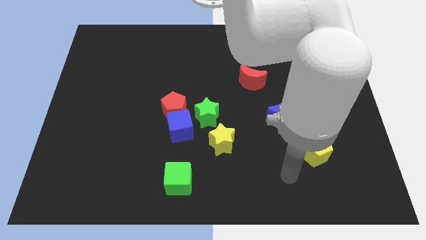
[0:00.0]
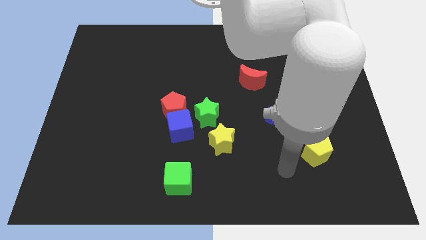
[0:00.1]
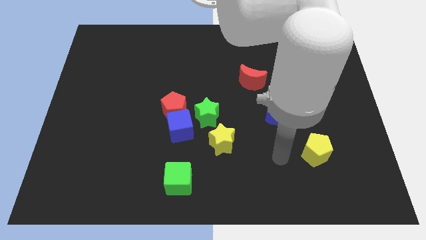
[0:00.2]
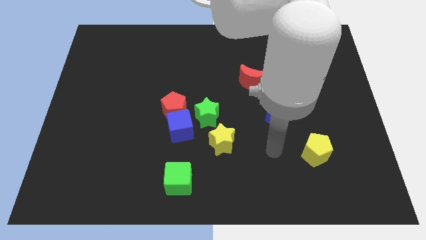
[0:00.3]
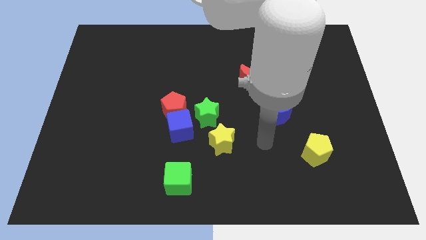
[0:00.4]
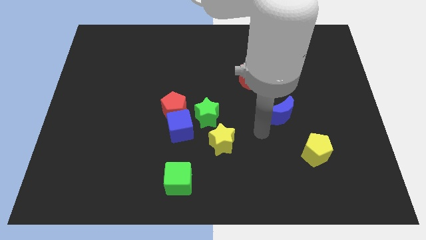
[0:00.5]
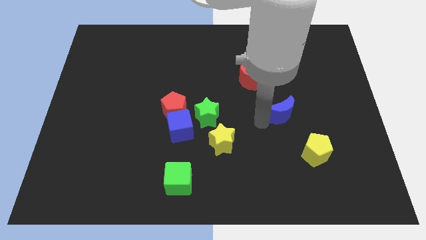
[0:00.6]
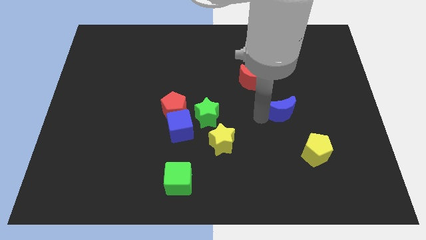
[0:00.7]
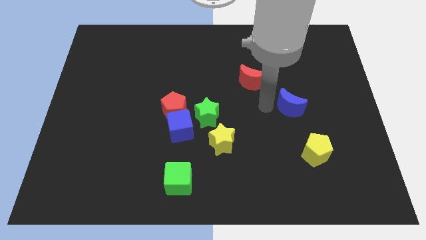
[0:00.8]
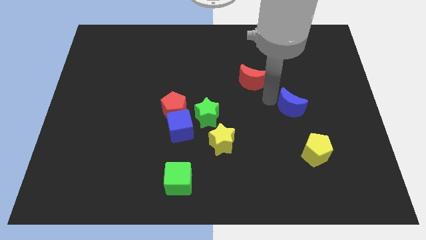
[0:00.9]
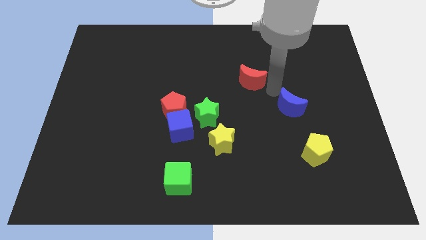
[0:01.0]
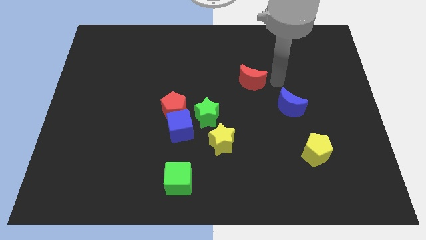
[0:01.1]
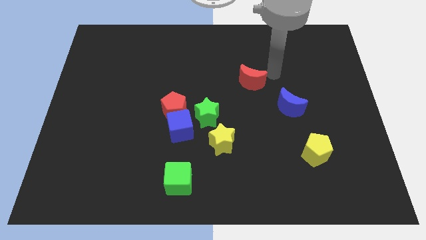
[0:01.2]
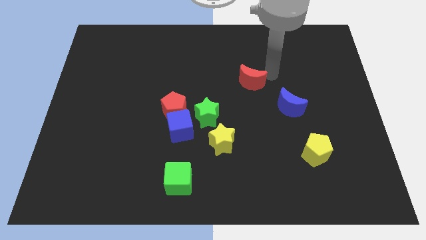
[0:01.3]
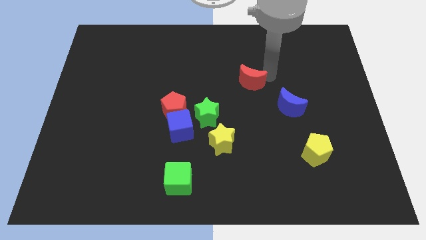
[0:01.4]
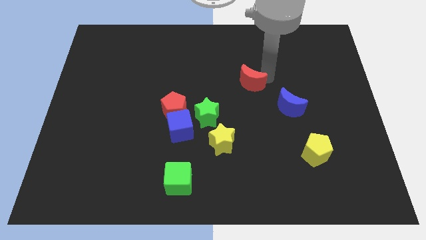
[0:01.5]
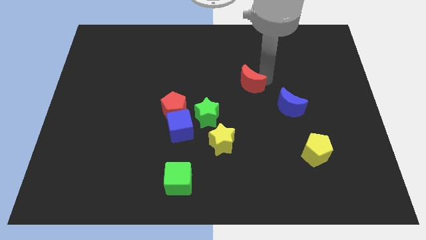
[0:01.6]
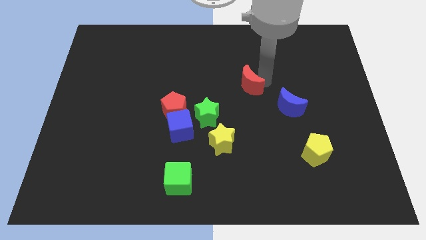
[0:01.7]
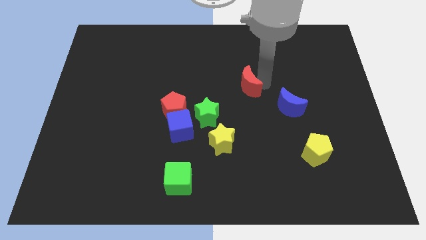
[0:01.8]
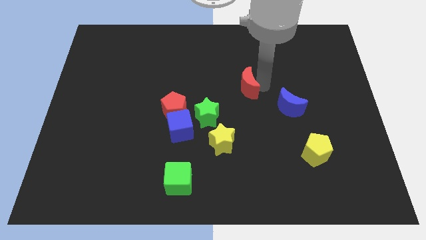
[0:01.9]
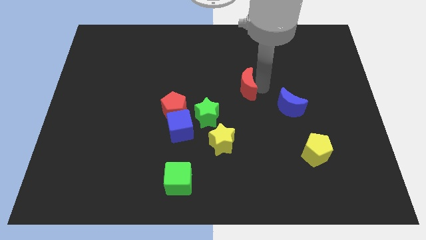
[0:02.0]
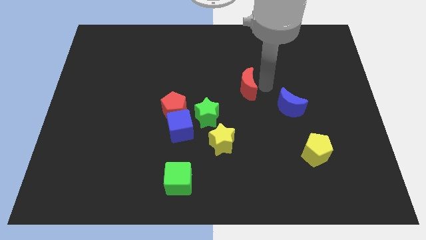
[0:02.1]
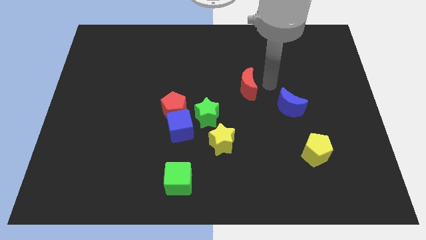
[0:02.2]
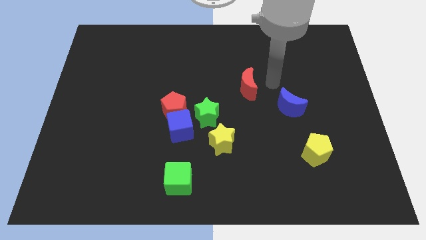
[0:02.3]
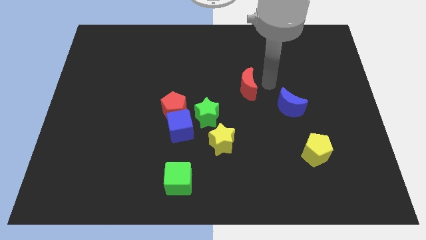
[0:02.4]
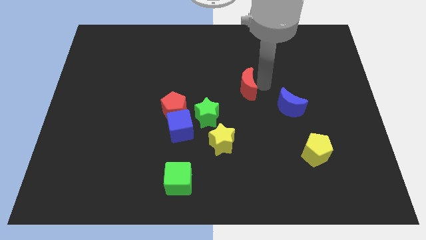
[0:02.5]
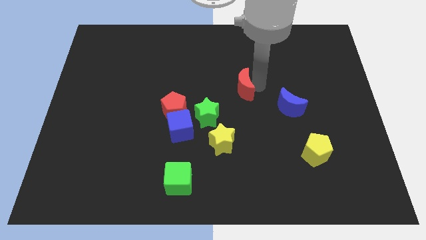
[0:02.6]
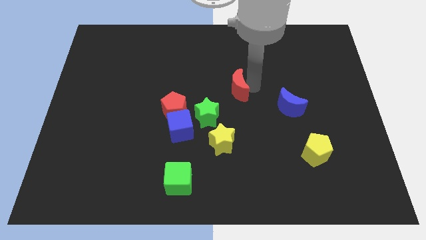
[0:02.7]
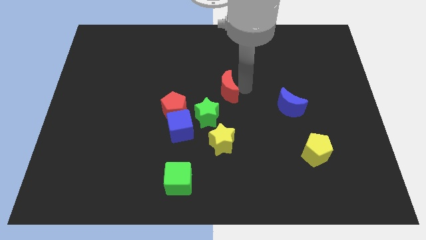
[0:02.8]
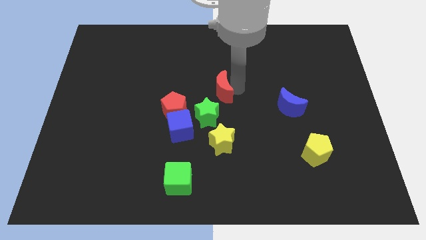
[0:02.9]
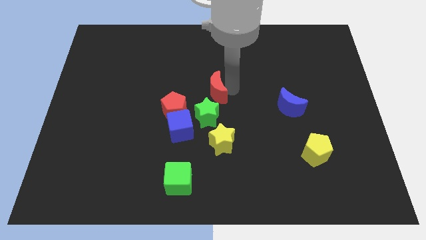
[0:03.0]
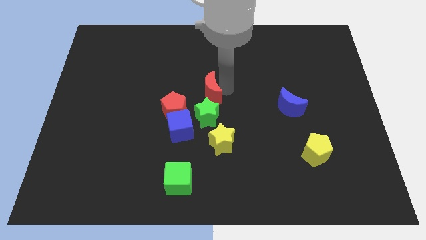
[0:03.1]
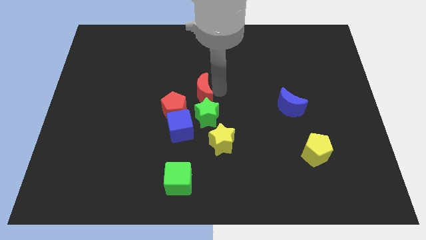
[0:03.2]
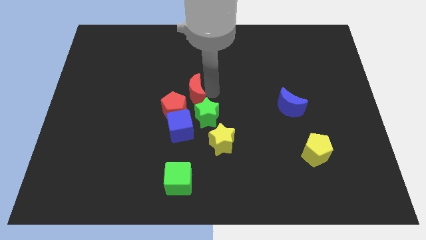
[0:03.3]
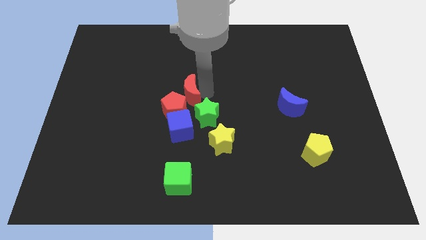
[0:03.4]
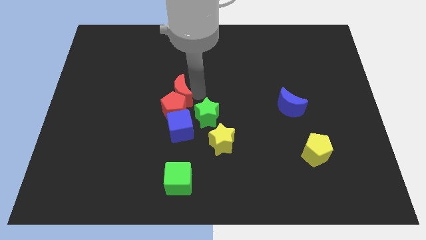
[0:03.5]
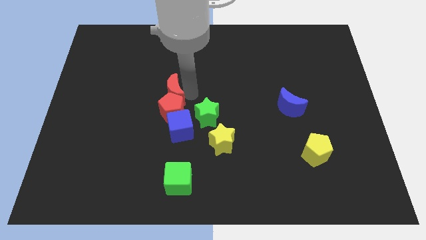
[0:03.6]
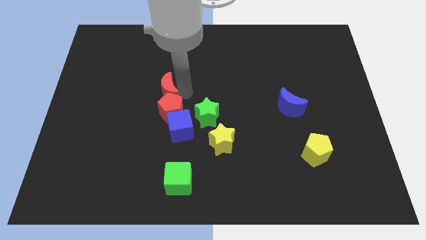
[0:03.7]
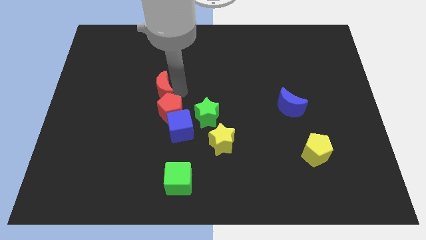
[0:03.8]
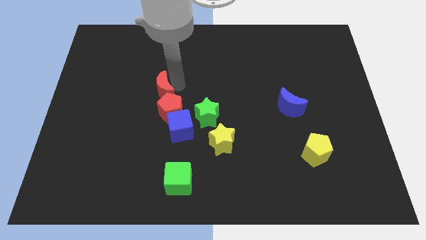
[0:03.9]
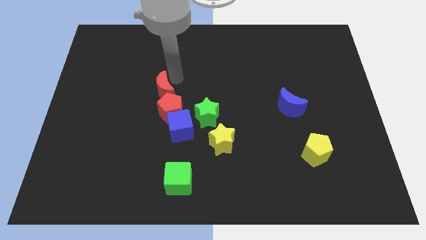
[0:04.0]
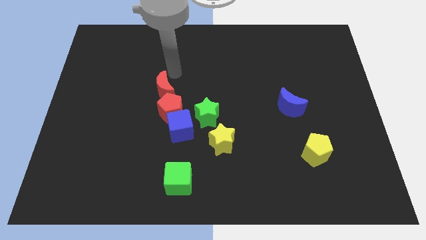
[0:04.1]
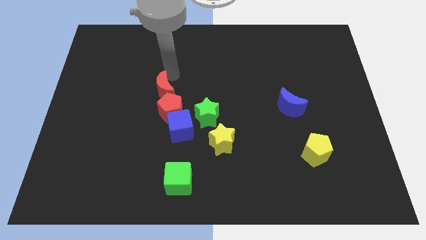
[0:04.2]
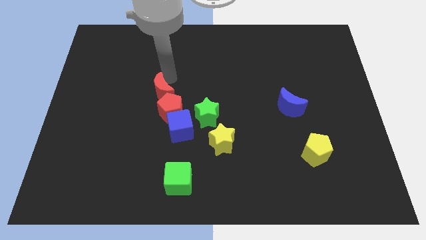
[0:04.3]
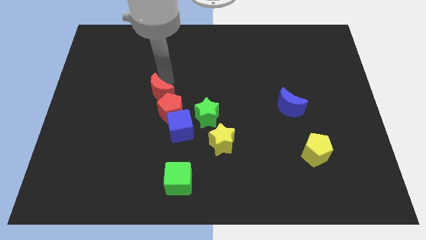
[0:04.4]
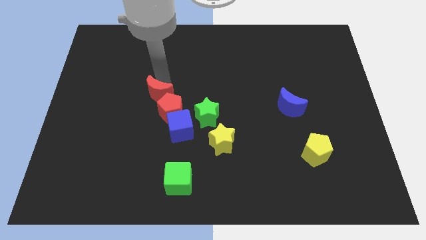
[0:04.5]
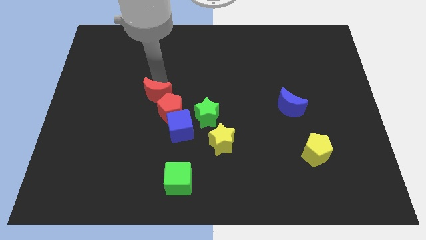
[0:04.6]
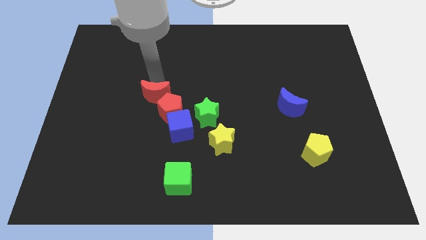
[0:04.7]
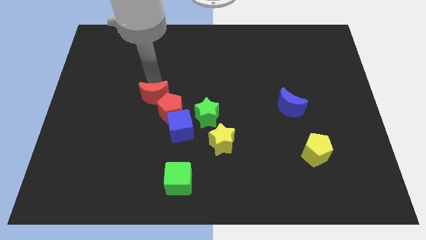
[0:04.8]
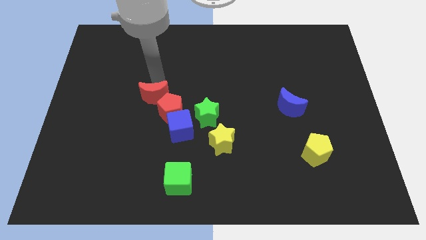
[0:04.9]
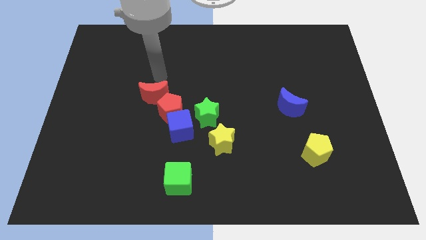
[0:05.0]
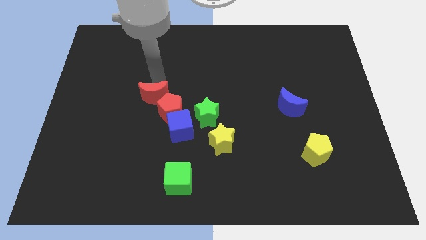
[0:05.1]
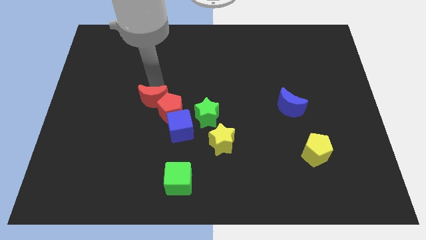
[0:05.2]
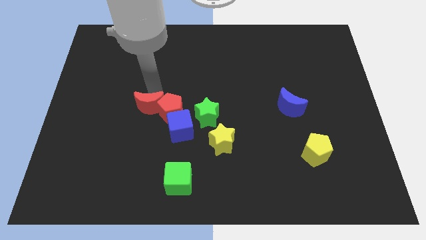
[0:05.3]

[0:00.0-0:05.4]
move the red moon to the bottom left side of the red pentagon

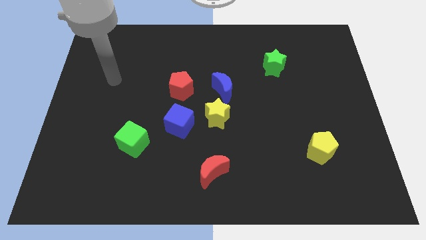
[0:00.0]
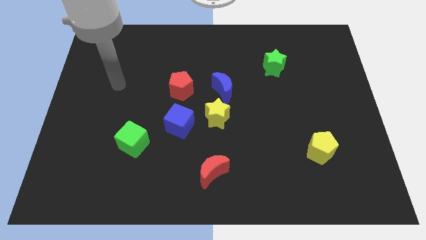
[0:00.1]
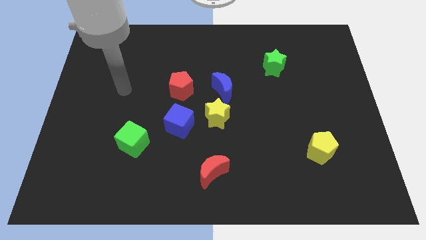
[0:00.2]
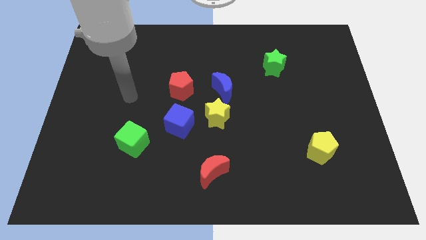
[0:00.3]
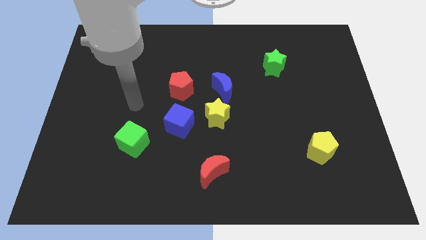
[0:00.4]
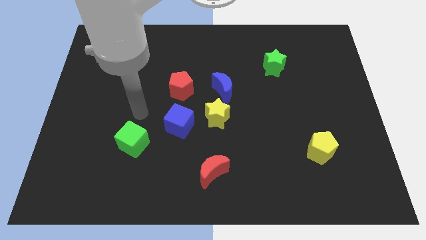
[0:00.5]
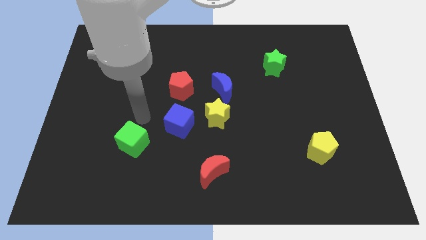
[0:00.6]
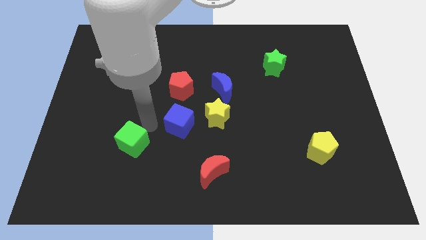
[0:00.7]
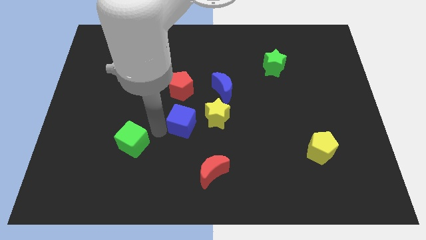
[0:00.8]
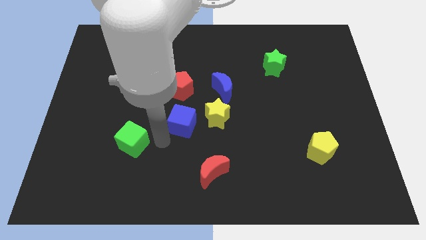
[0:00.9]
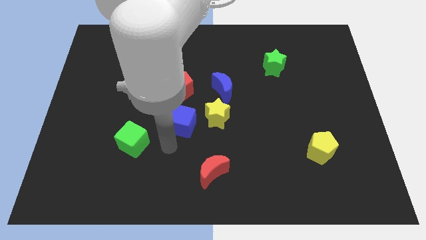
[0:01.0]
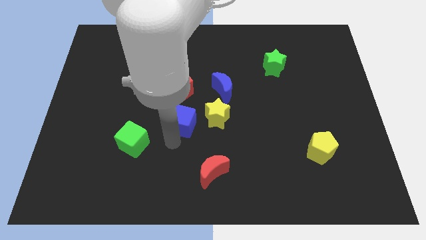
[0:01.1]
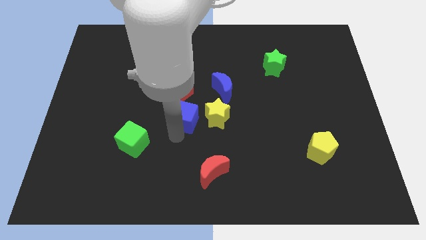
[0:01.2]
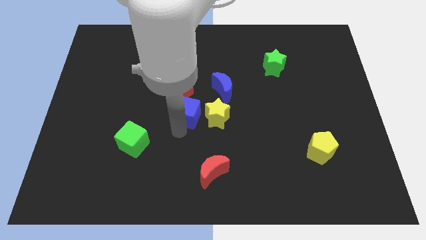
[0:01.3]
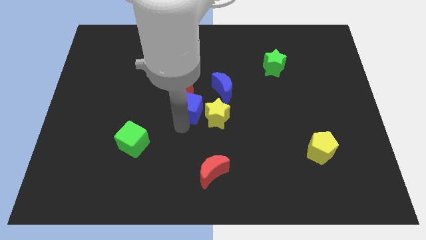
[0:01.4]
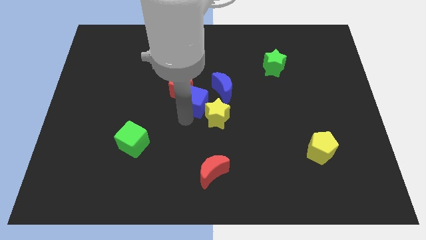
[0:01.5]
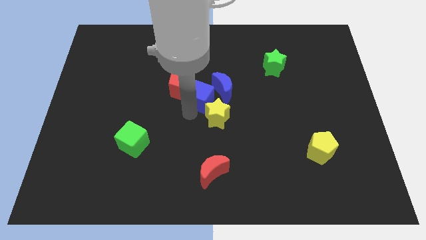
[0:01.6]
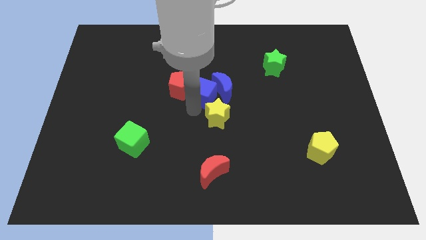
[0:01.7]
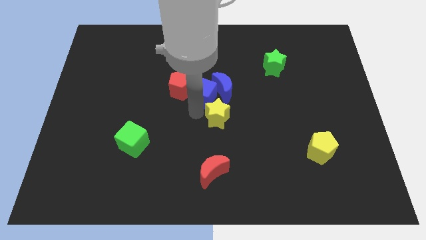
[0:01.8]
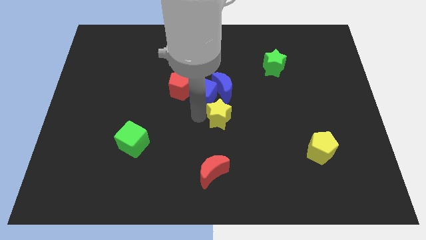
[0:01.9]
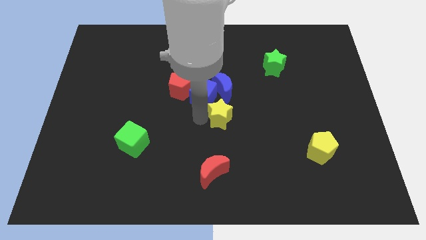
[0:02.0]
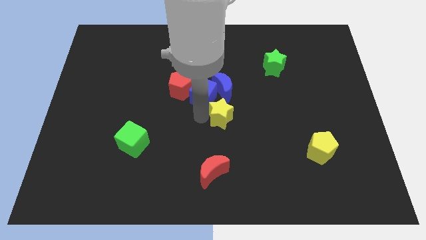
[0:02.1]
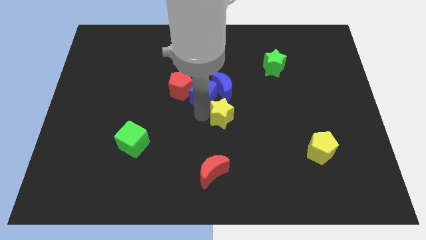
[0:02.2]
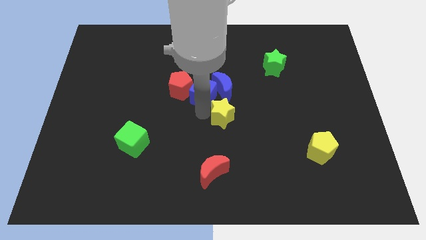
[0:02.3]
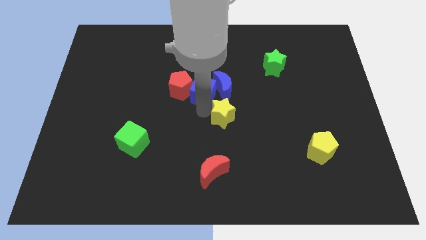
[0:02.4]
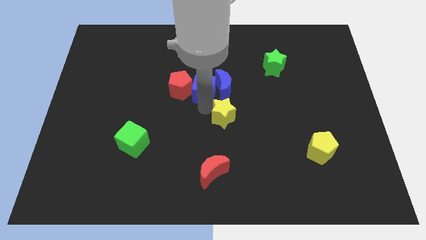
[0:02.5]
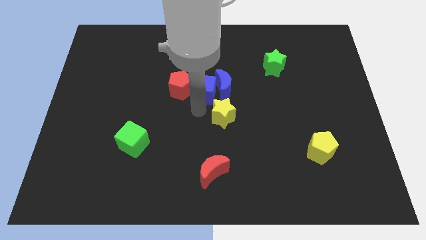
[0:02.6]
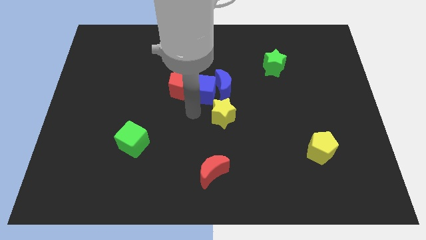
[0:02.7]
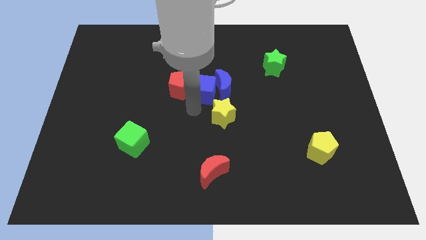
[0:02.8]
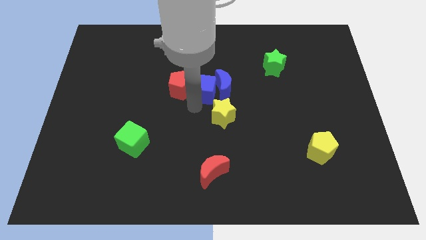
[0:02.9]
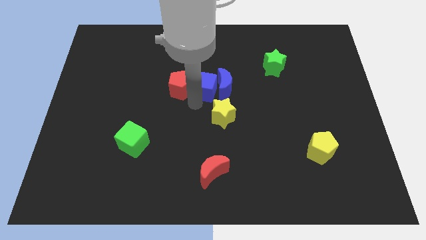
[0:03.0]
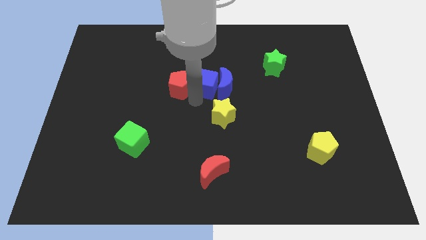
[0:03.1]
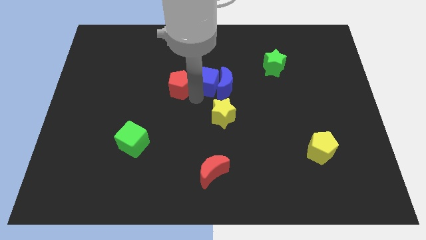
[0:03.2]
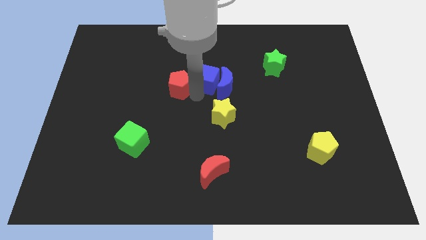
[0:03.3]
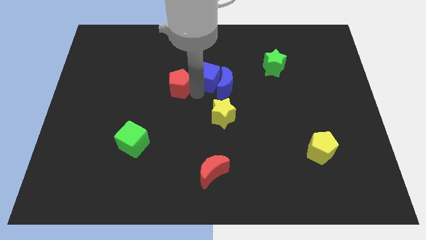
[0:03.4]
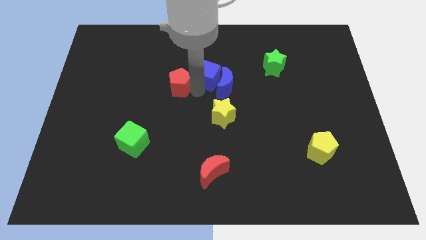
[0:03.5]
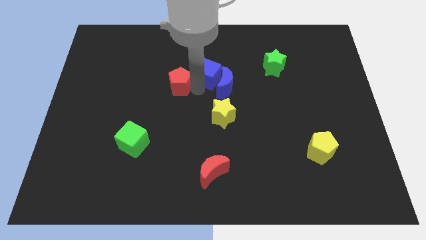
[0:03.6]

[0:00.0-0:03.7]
move the blue cube above the blue moon
